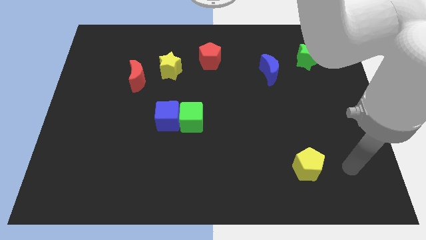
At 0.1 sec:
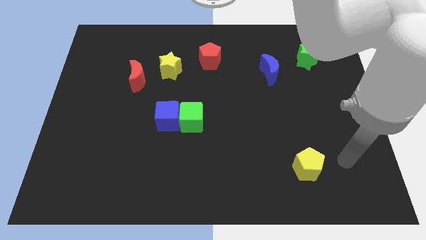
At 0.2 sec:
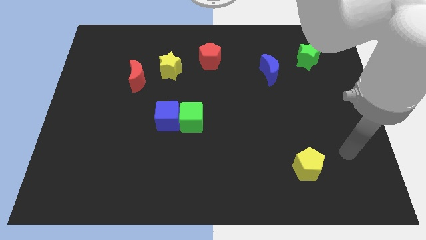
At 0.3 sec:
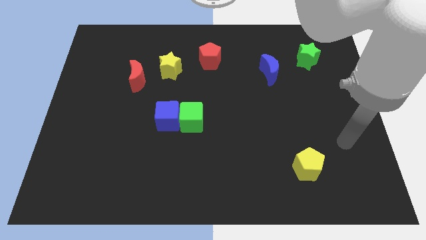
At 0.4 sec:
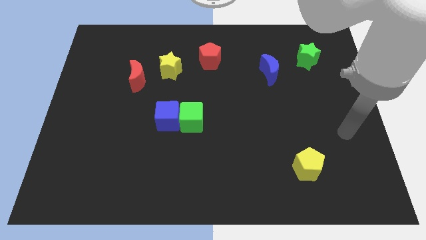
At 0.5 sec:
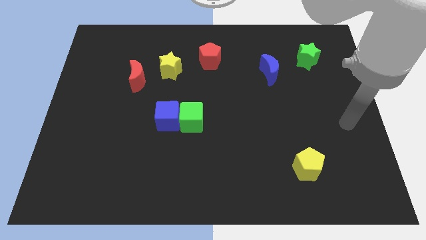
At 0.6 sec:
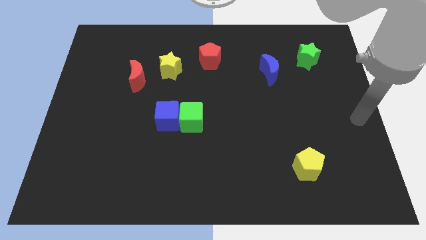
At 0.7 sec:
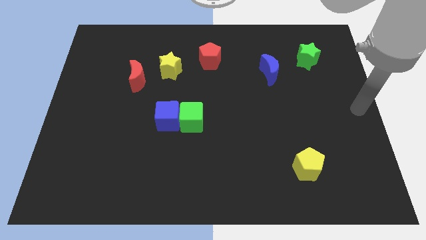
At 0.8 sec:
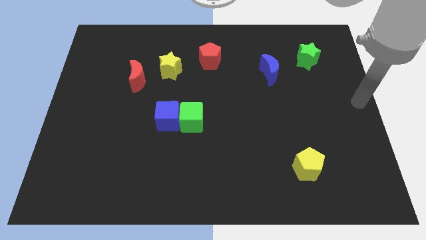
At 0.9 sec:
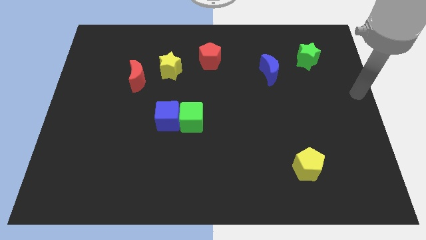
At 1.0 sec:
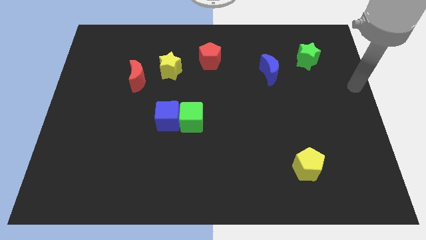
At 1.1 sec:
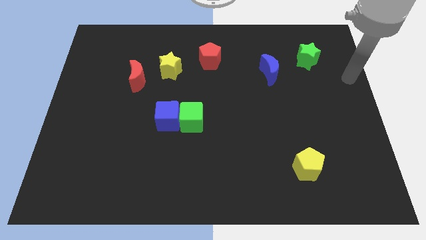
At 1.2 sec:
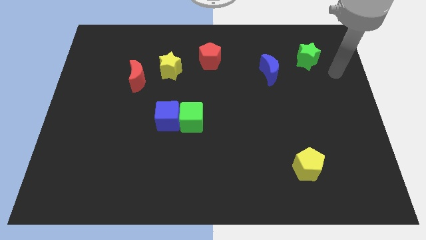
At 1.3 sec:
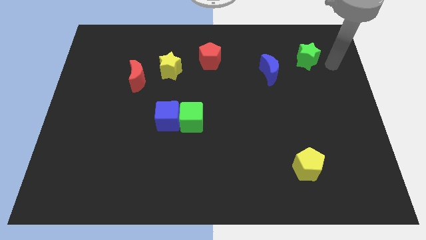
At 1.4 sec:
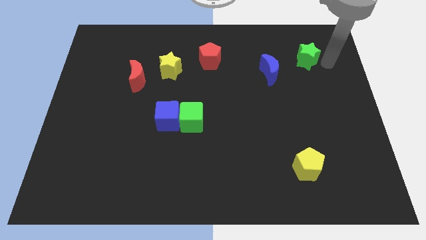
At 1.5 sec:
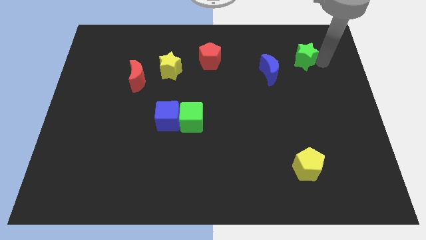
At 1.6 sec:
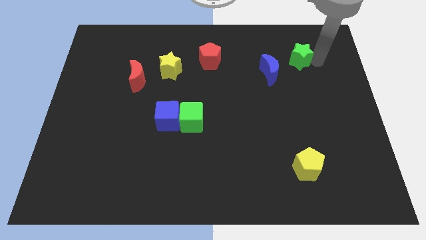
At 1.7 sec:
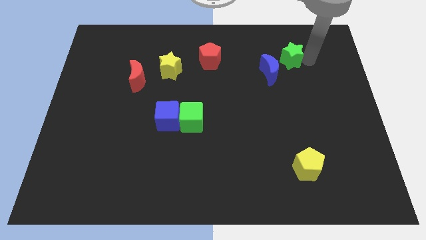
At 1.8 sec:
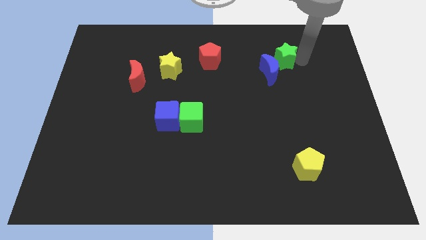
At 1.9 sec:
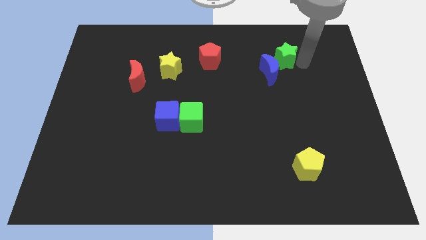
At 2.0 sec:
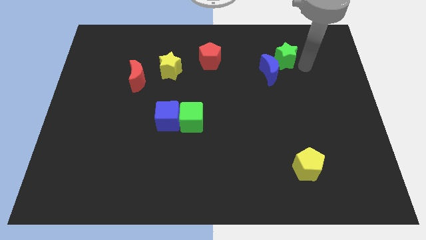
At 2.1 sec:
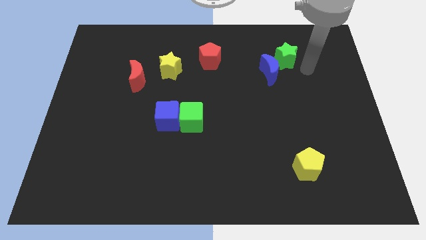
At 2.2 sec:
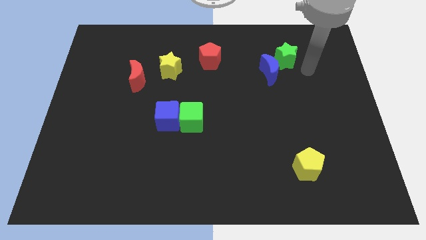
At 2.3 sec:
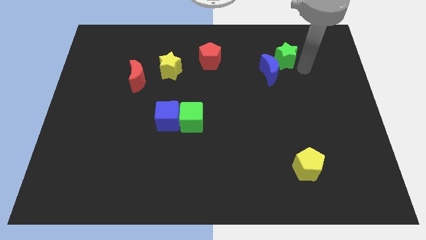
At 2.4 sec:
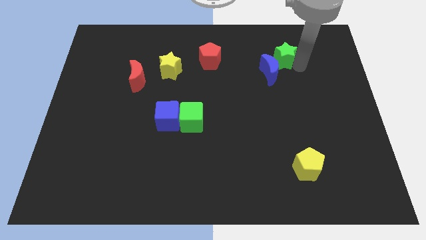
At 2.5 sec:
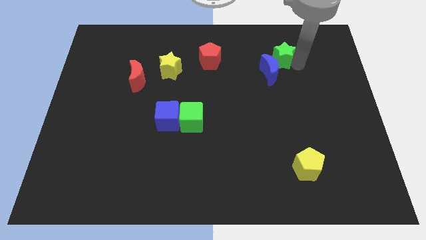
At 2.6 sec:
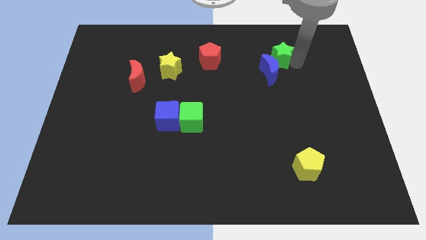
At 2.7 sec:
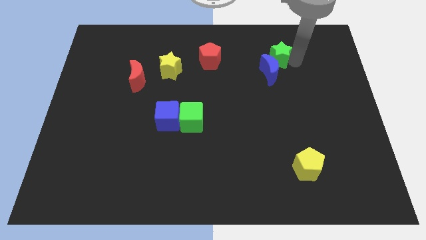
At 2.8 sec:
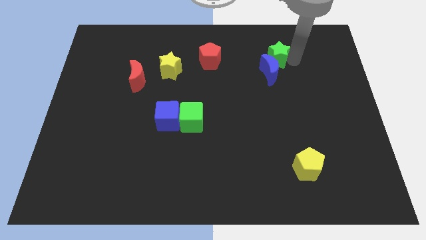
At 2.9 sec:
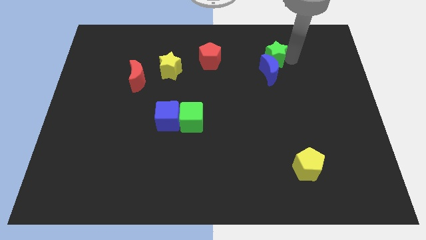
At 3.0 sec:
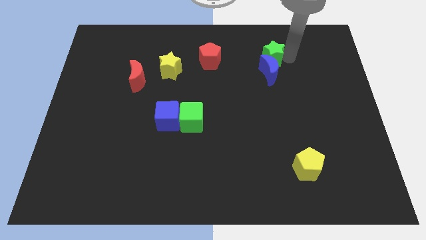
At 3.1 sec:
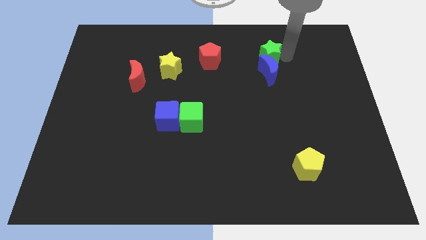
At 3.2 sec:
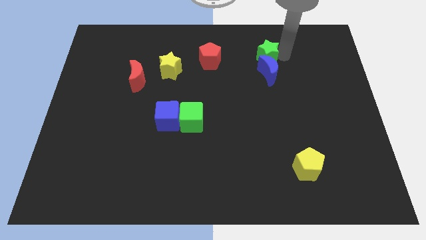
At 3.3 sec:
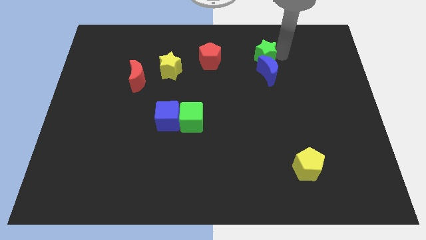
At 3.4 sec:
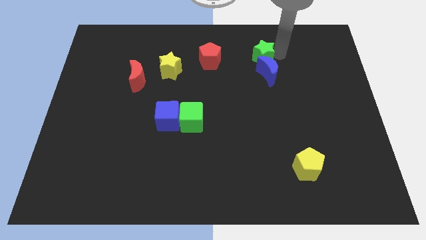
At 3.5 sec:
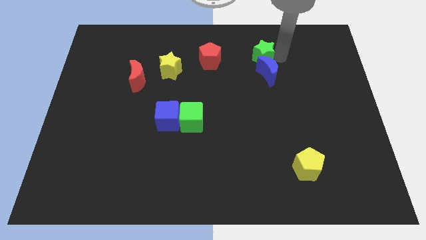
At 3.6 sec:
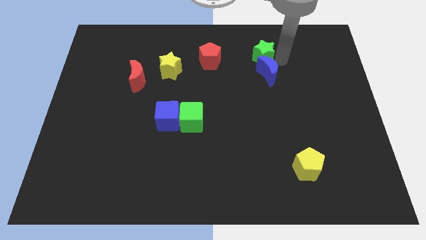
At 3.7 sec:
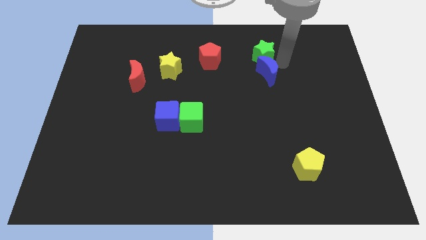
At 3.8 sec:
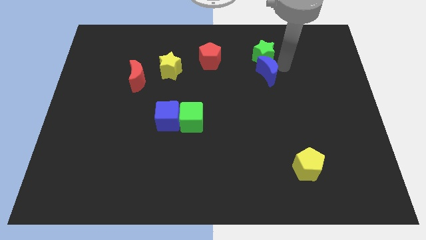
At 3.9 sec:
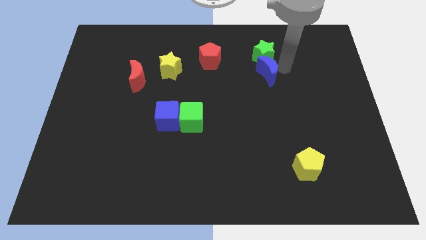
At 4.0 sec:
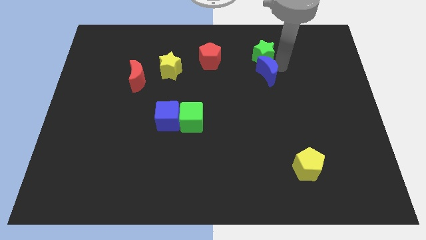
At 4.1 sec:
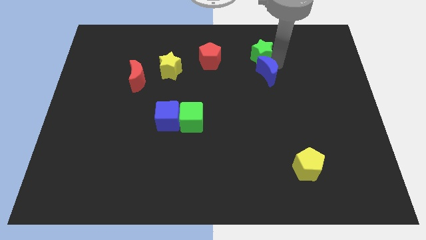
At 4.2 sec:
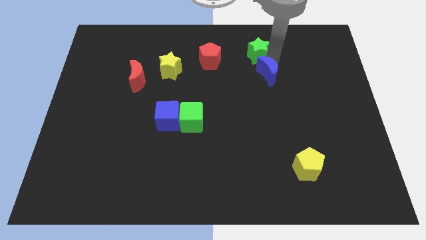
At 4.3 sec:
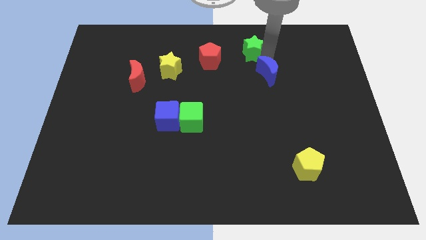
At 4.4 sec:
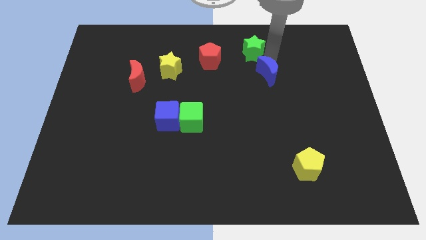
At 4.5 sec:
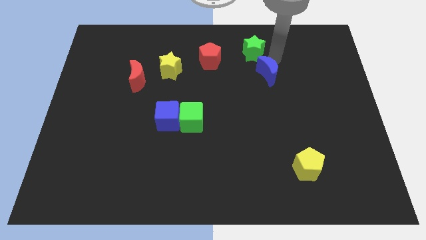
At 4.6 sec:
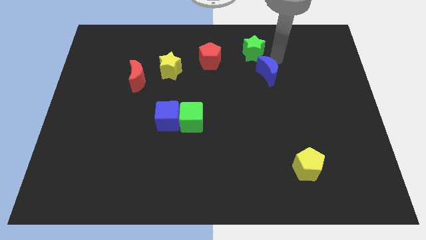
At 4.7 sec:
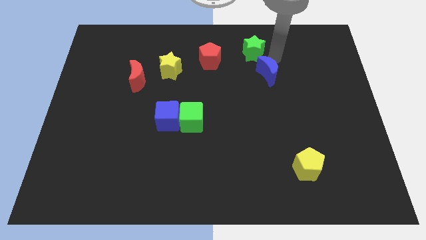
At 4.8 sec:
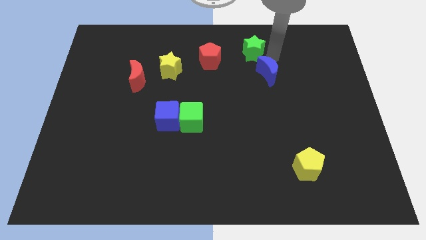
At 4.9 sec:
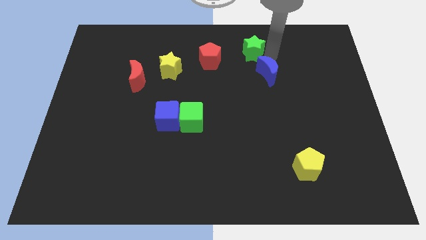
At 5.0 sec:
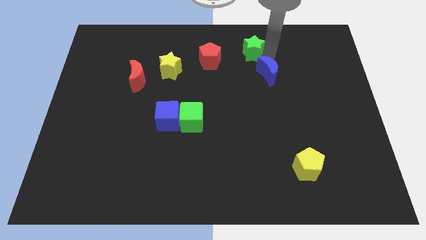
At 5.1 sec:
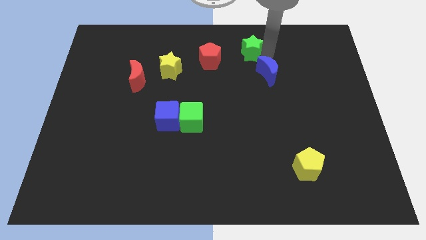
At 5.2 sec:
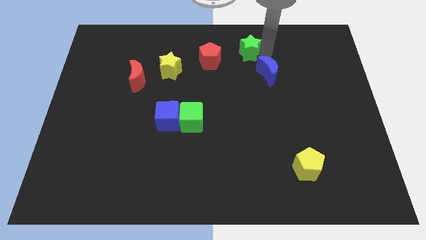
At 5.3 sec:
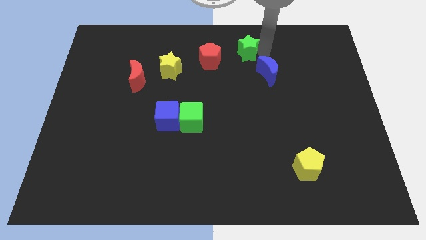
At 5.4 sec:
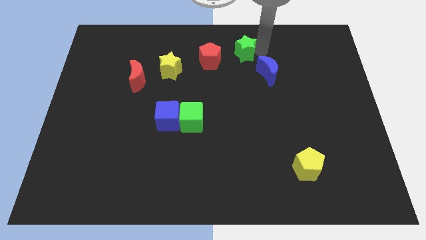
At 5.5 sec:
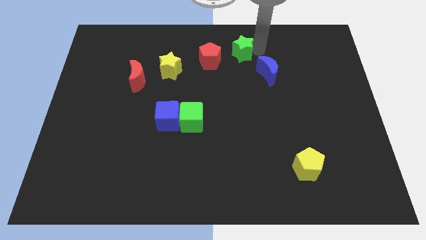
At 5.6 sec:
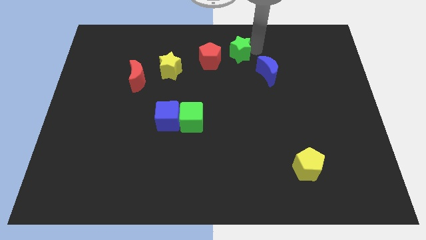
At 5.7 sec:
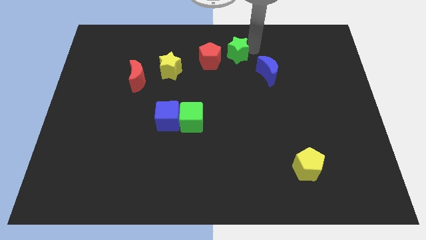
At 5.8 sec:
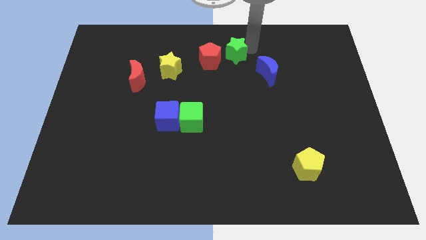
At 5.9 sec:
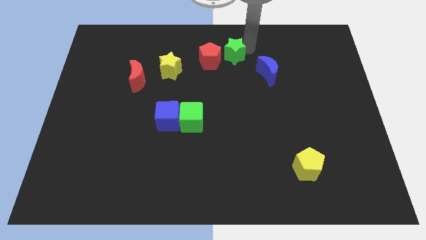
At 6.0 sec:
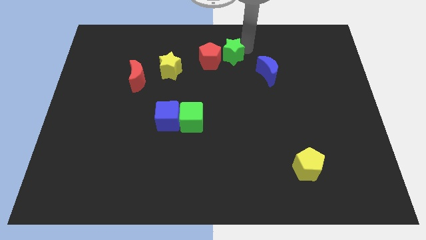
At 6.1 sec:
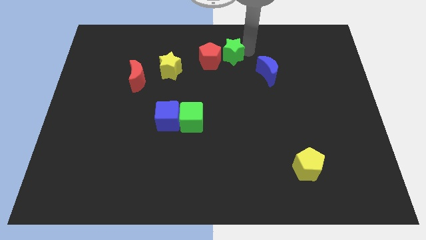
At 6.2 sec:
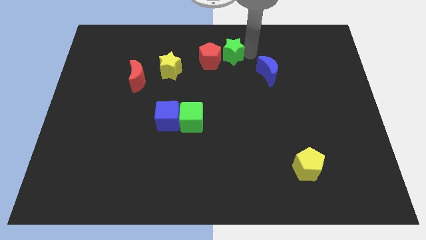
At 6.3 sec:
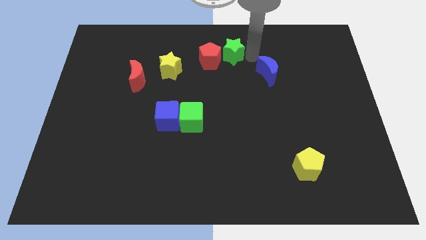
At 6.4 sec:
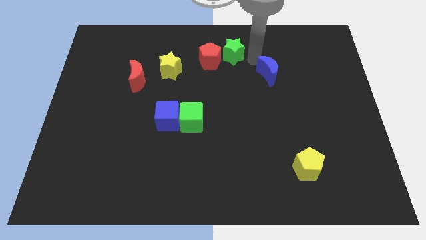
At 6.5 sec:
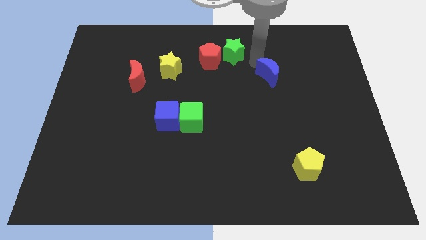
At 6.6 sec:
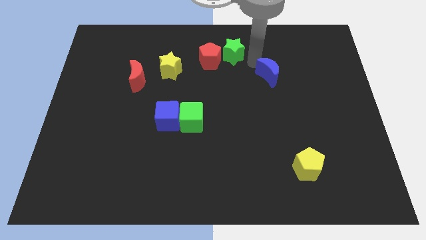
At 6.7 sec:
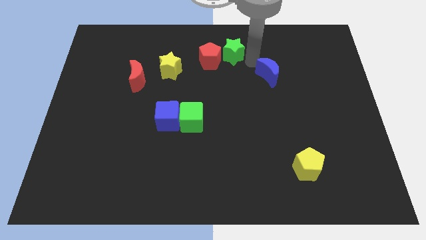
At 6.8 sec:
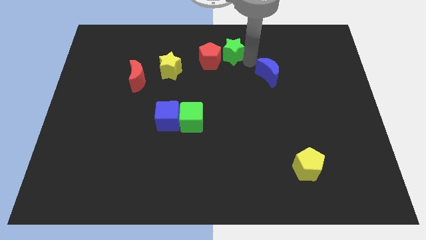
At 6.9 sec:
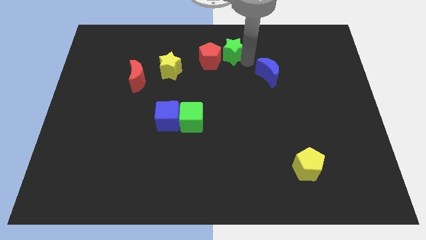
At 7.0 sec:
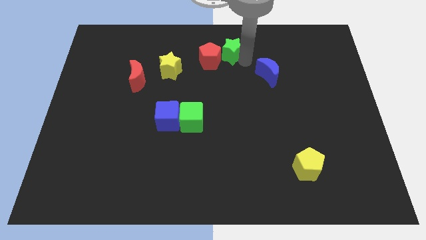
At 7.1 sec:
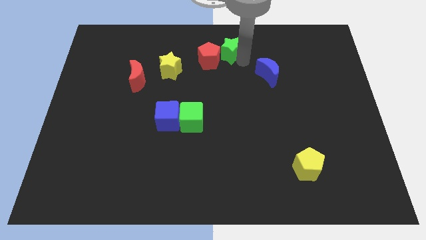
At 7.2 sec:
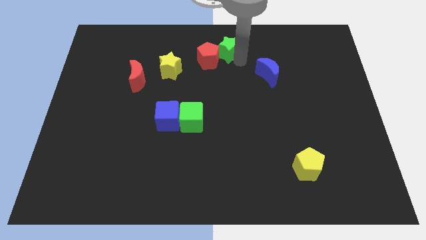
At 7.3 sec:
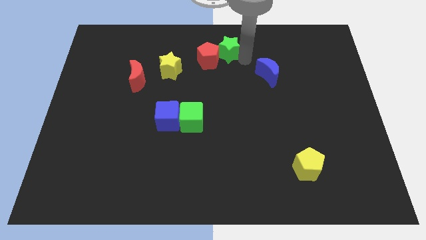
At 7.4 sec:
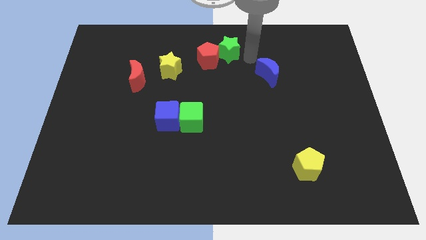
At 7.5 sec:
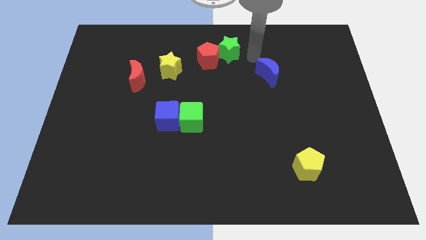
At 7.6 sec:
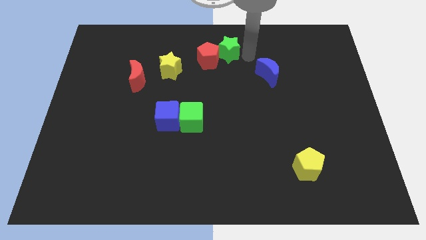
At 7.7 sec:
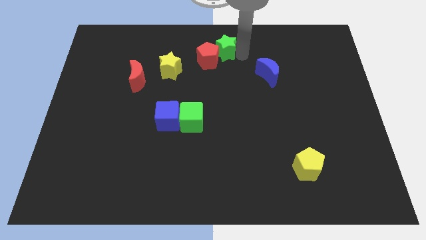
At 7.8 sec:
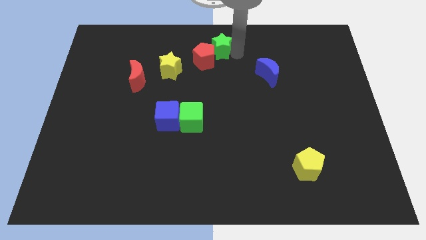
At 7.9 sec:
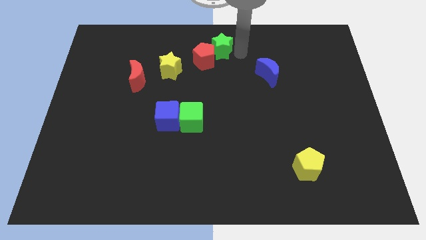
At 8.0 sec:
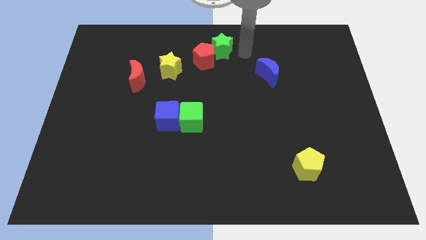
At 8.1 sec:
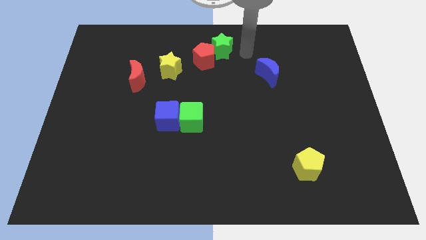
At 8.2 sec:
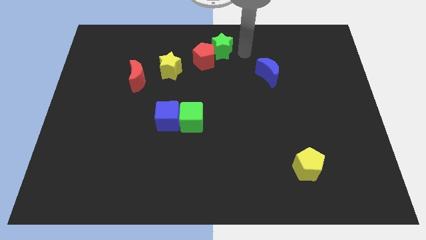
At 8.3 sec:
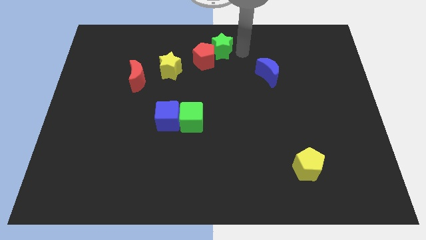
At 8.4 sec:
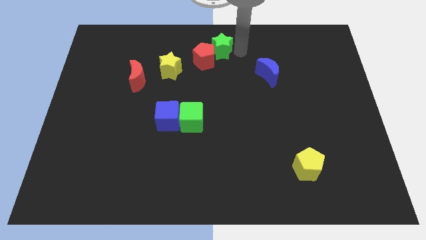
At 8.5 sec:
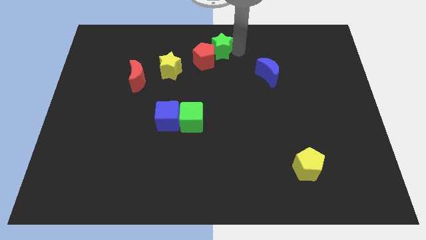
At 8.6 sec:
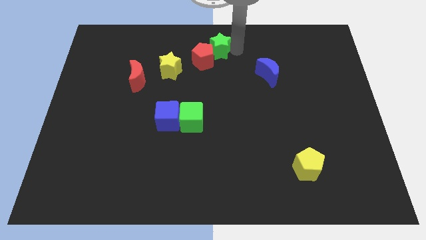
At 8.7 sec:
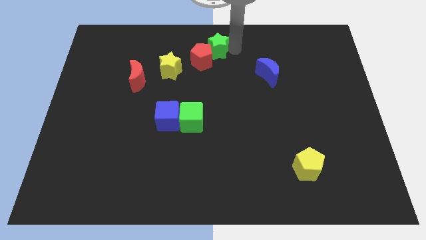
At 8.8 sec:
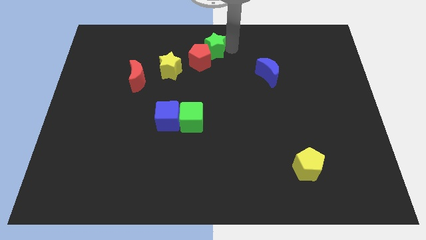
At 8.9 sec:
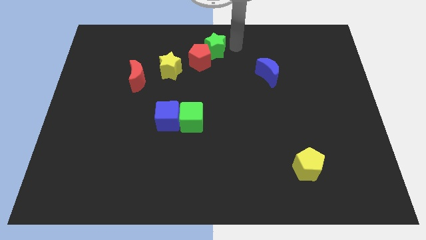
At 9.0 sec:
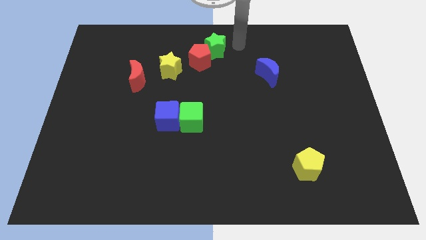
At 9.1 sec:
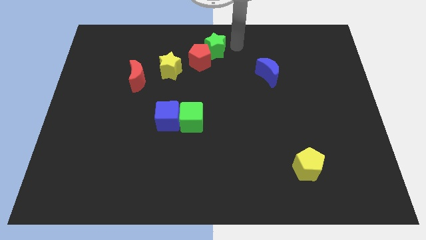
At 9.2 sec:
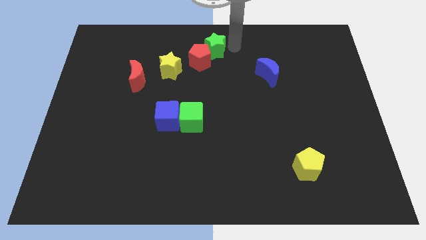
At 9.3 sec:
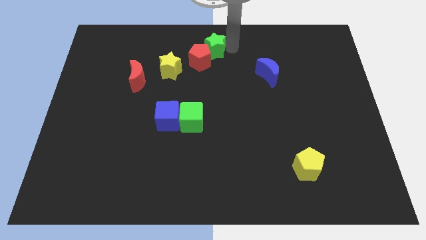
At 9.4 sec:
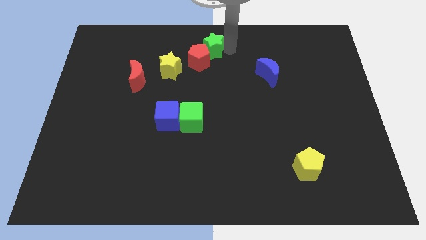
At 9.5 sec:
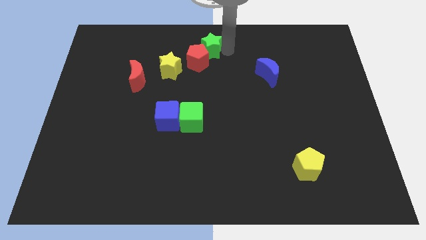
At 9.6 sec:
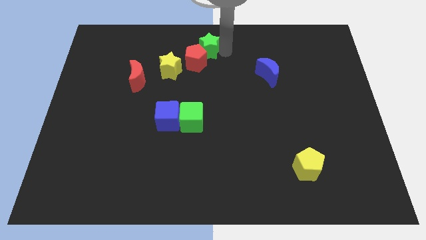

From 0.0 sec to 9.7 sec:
move the green star to the top right side of the yellow star
